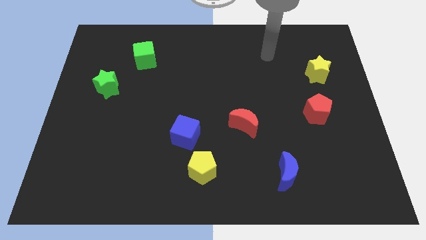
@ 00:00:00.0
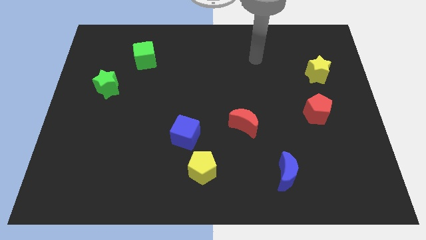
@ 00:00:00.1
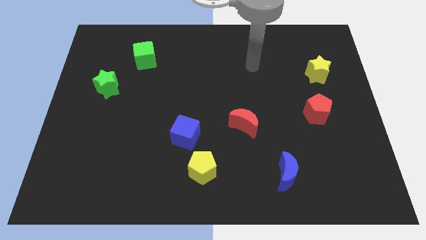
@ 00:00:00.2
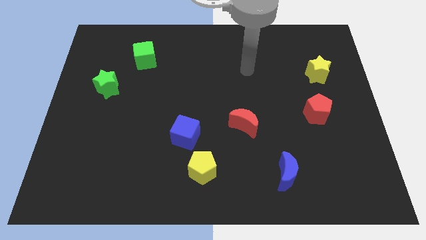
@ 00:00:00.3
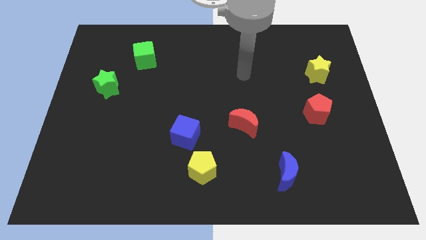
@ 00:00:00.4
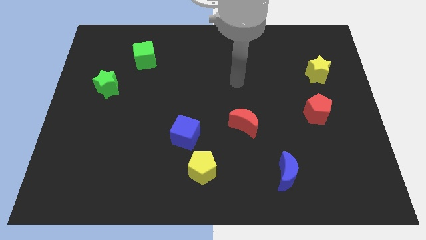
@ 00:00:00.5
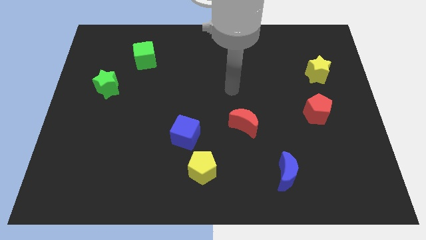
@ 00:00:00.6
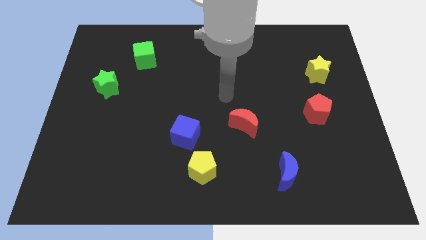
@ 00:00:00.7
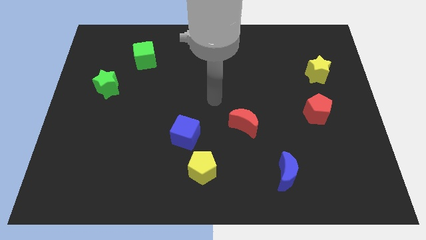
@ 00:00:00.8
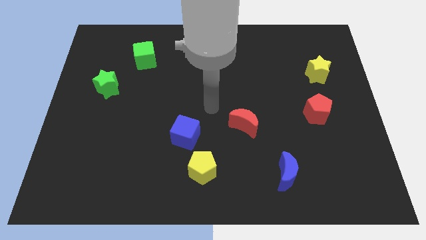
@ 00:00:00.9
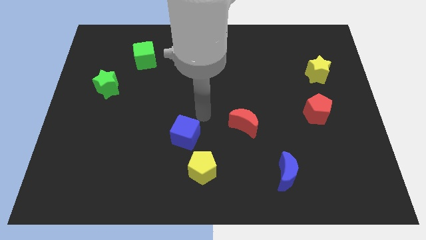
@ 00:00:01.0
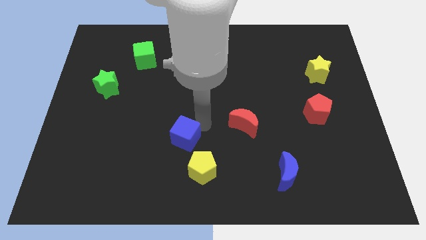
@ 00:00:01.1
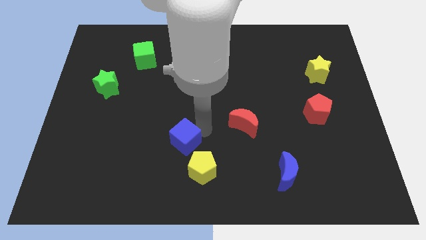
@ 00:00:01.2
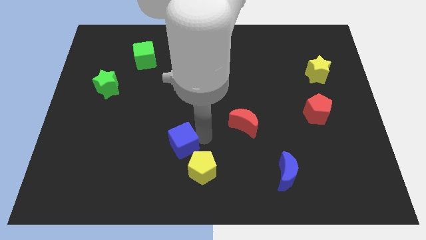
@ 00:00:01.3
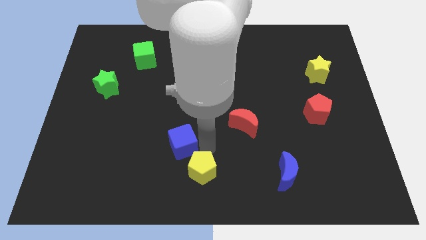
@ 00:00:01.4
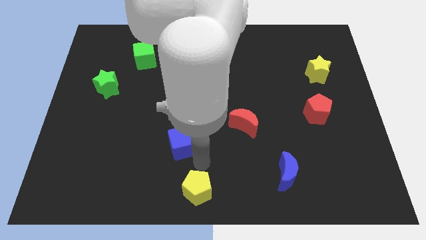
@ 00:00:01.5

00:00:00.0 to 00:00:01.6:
separate the blue cube from the yellow pentagon

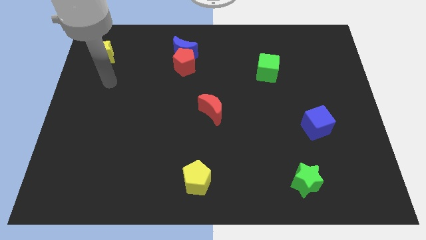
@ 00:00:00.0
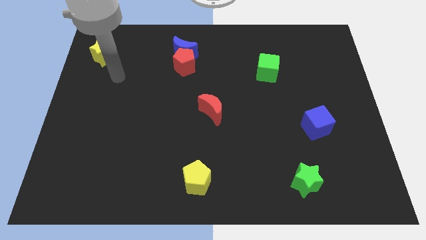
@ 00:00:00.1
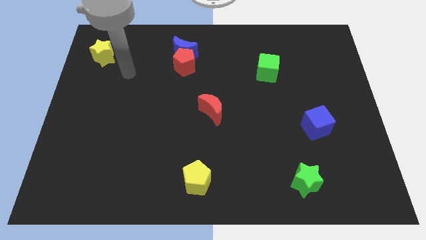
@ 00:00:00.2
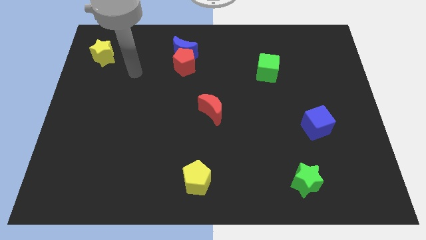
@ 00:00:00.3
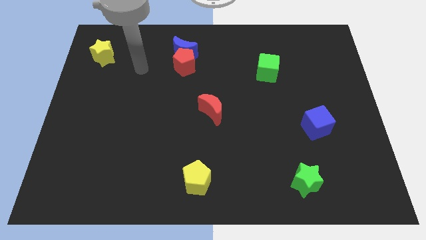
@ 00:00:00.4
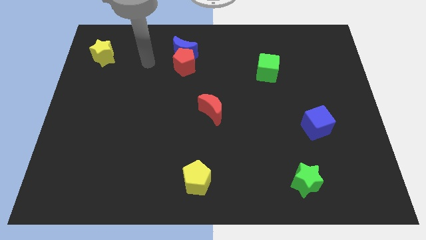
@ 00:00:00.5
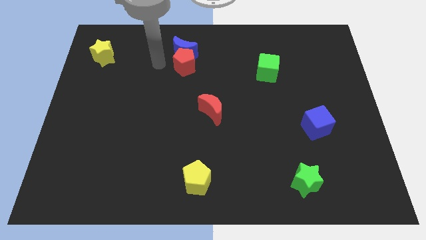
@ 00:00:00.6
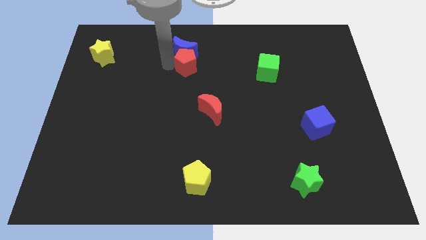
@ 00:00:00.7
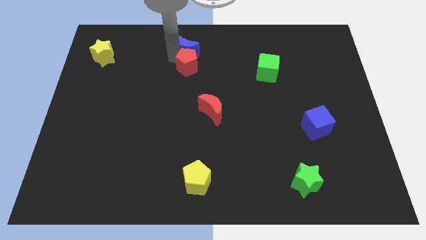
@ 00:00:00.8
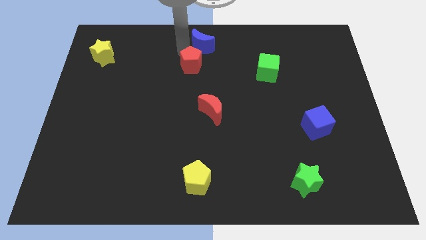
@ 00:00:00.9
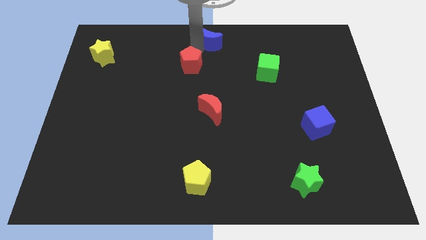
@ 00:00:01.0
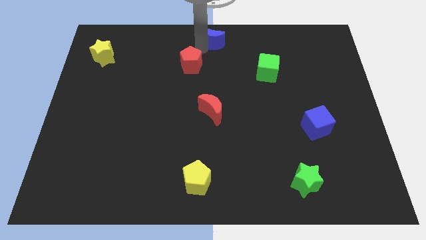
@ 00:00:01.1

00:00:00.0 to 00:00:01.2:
pull the red pentagon apart from the blue moon

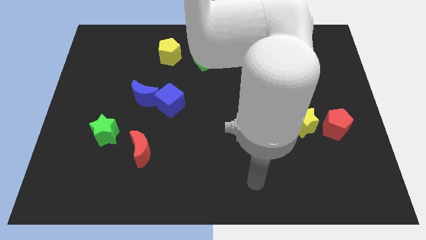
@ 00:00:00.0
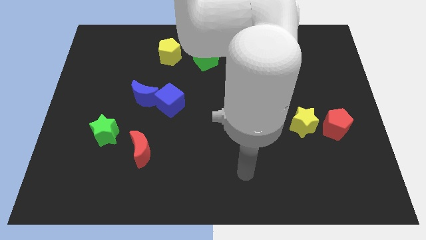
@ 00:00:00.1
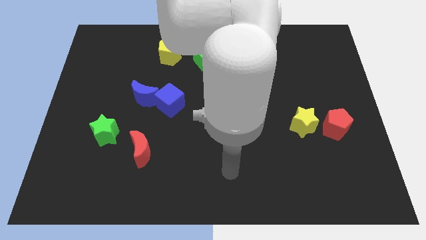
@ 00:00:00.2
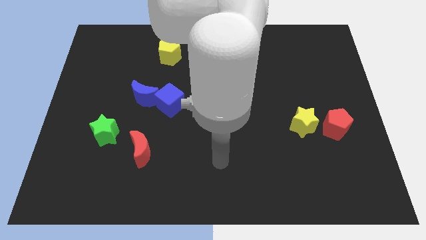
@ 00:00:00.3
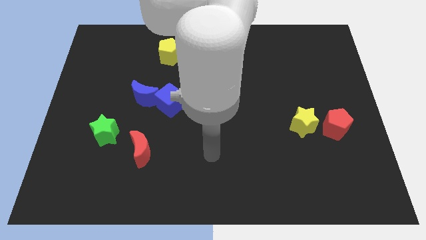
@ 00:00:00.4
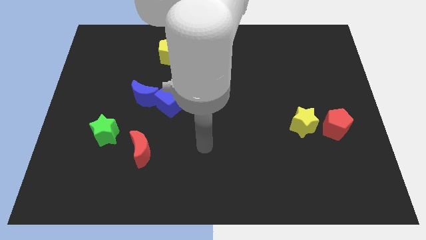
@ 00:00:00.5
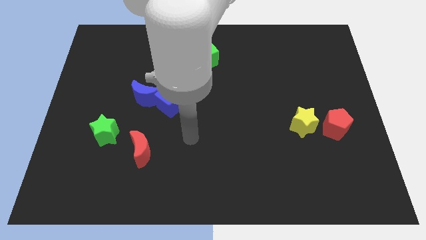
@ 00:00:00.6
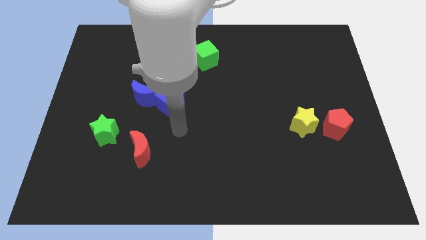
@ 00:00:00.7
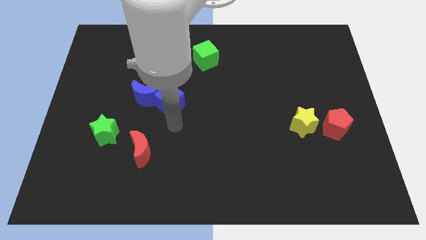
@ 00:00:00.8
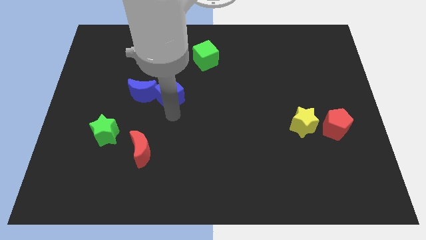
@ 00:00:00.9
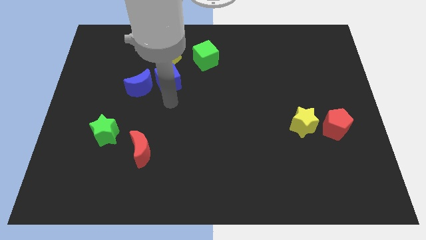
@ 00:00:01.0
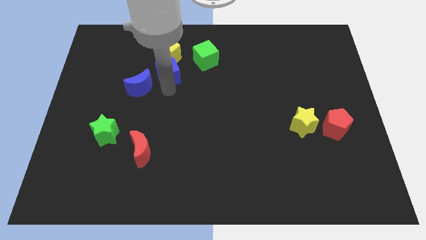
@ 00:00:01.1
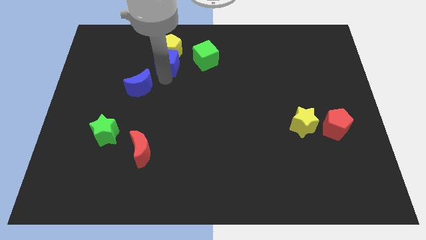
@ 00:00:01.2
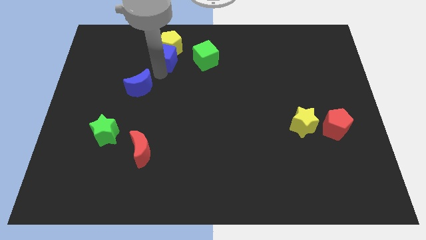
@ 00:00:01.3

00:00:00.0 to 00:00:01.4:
move the blue moon away from the blue cube

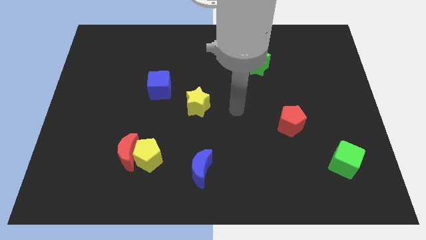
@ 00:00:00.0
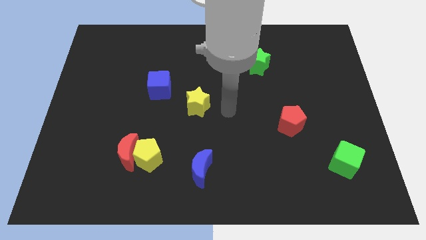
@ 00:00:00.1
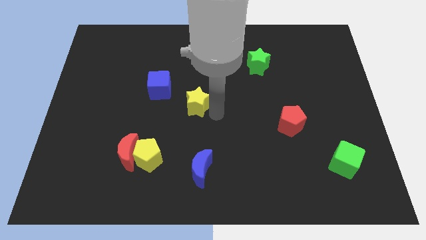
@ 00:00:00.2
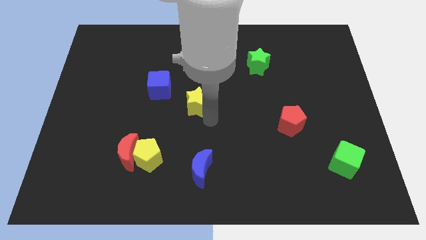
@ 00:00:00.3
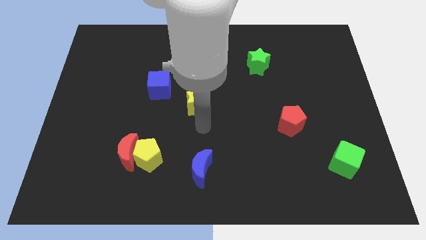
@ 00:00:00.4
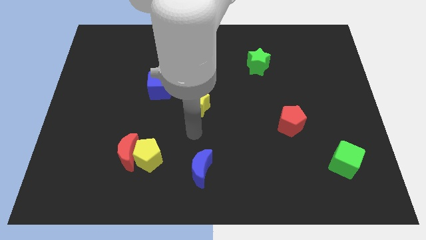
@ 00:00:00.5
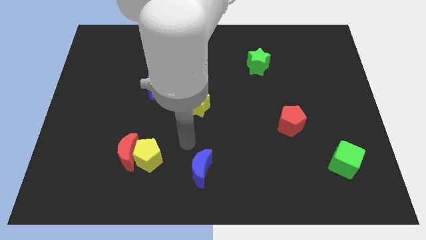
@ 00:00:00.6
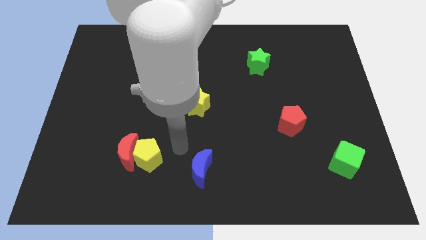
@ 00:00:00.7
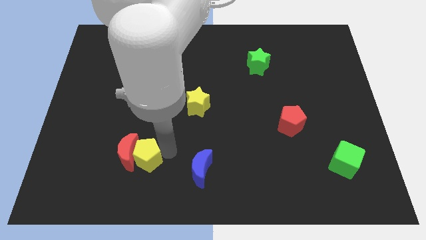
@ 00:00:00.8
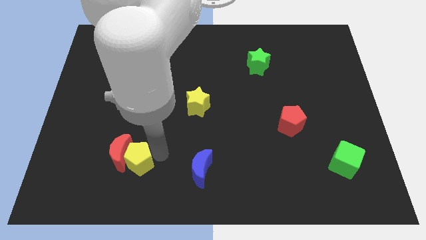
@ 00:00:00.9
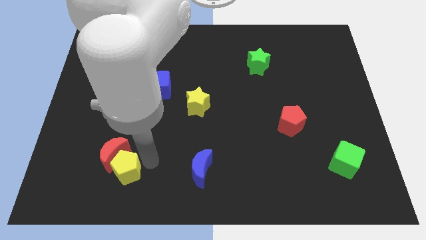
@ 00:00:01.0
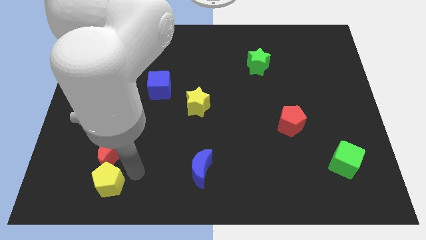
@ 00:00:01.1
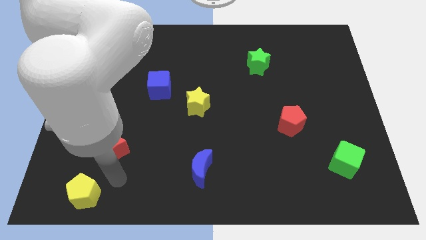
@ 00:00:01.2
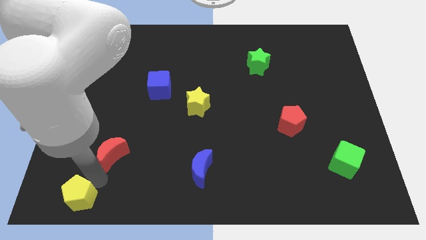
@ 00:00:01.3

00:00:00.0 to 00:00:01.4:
pull the red moon apart from the yellow pentagon

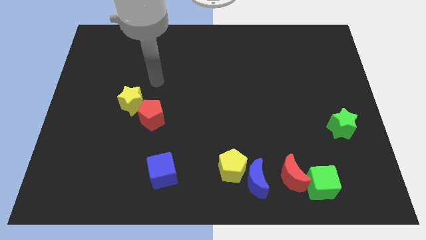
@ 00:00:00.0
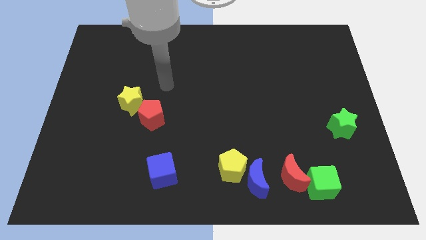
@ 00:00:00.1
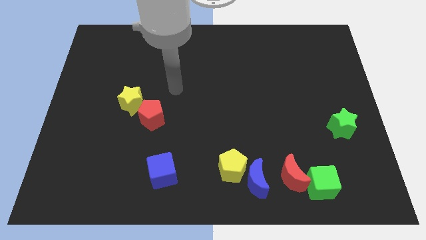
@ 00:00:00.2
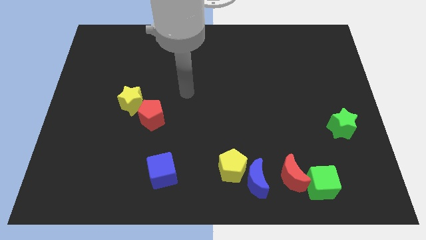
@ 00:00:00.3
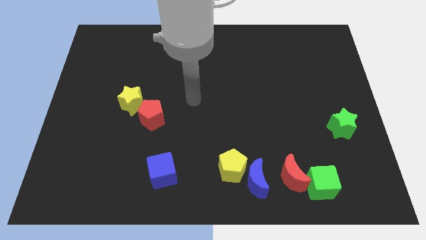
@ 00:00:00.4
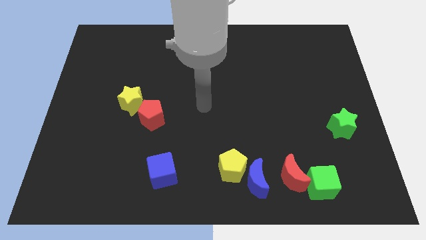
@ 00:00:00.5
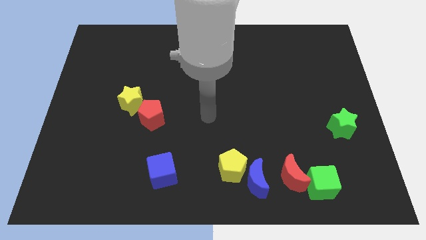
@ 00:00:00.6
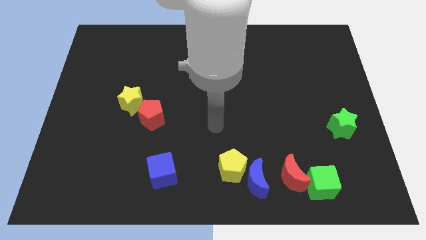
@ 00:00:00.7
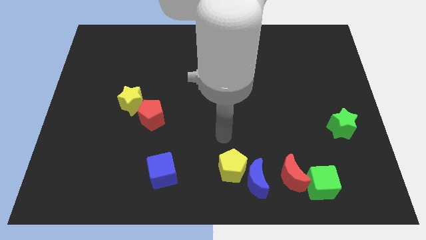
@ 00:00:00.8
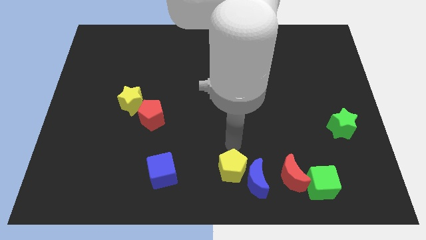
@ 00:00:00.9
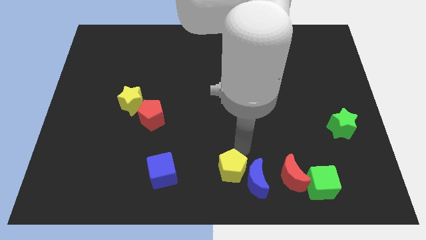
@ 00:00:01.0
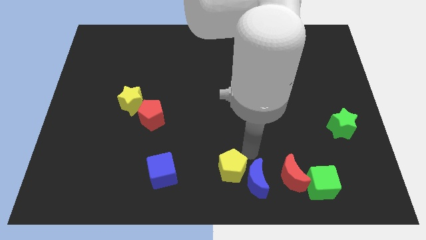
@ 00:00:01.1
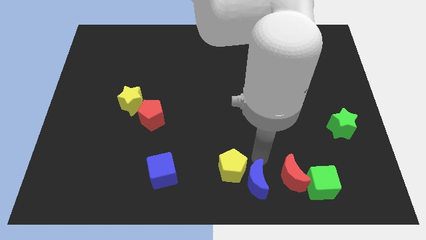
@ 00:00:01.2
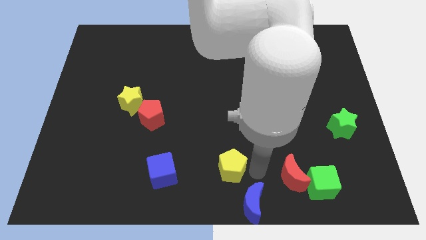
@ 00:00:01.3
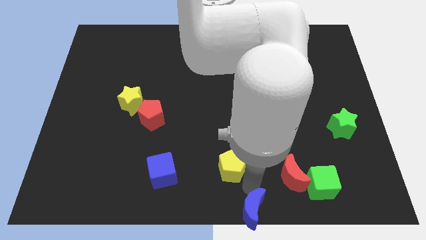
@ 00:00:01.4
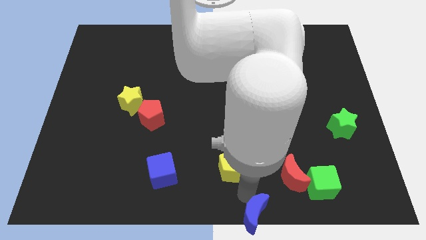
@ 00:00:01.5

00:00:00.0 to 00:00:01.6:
separate the yellow pentagon from the blue moon

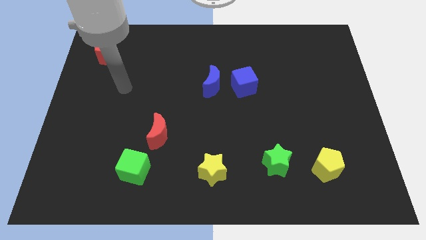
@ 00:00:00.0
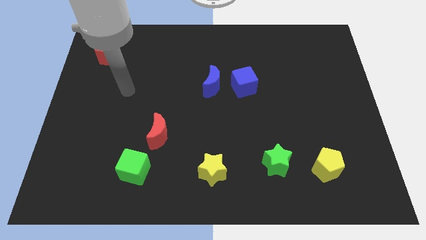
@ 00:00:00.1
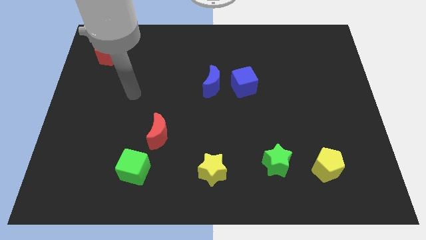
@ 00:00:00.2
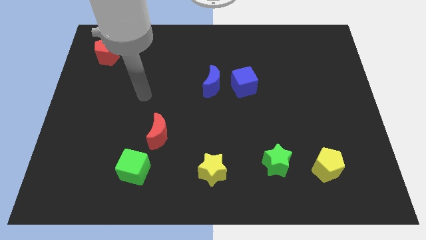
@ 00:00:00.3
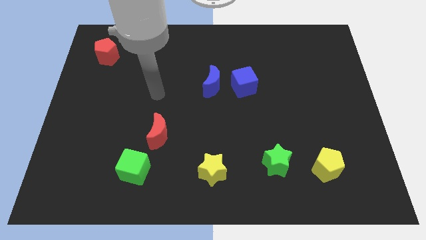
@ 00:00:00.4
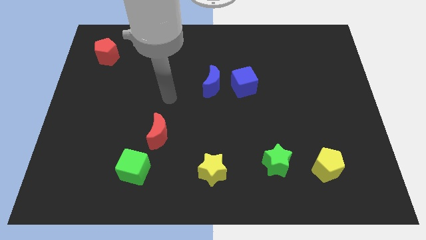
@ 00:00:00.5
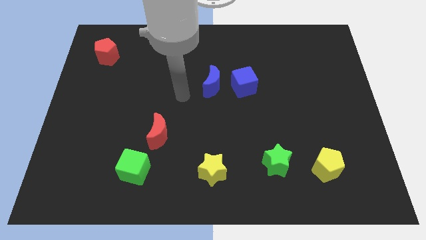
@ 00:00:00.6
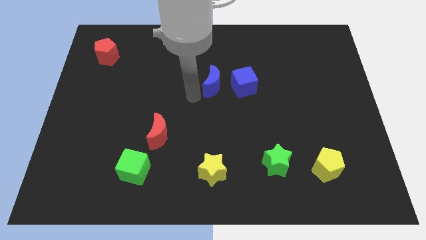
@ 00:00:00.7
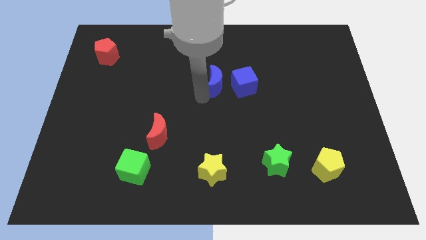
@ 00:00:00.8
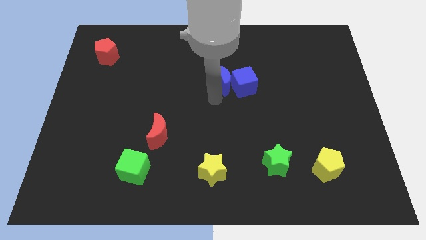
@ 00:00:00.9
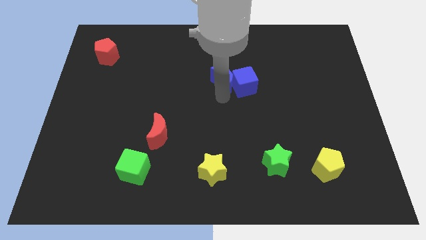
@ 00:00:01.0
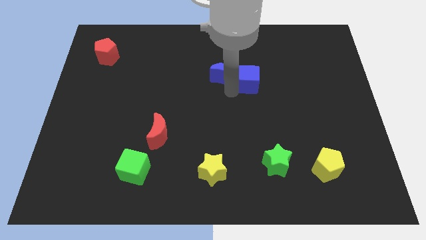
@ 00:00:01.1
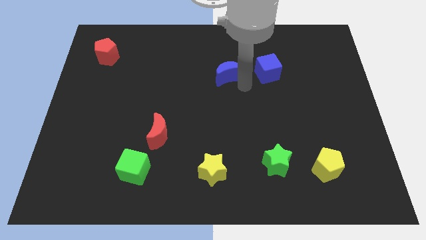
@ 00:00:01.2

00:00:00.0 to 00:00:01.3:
pull the blue moon apart from the blue cube

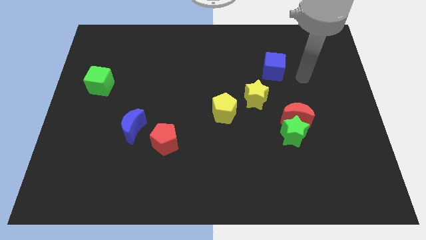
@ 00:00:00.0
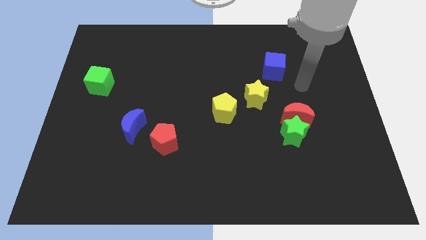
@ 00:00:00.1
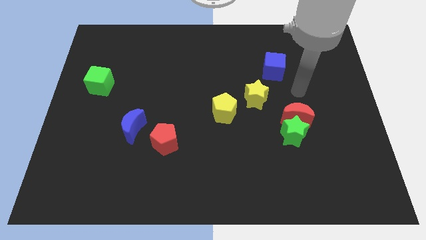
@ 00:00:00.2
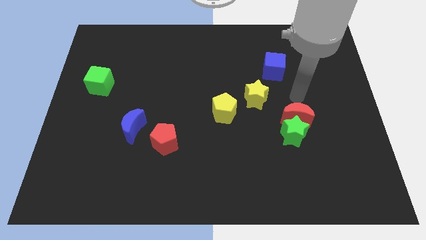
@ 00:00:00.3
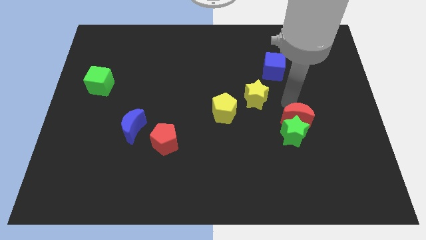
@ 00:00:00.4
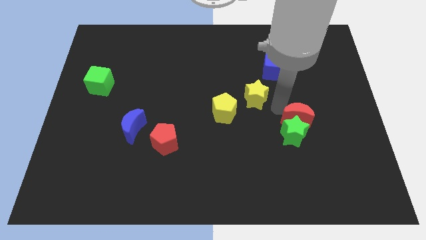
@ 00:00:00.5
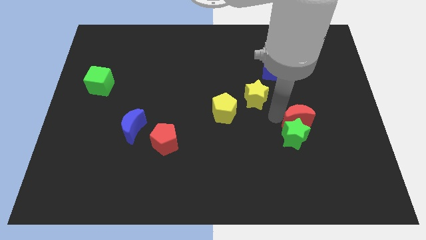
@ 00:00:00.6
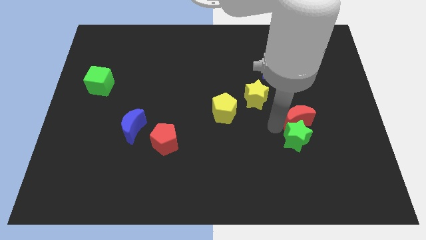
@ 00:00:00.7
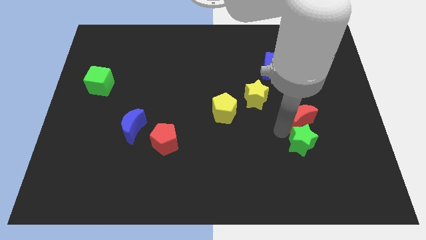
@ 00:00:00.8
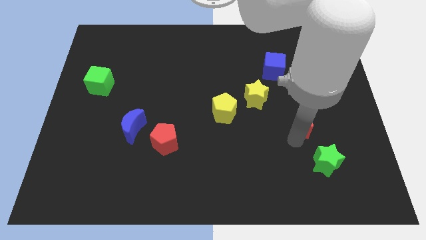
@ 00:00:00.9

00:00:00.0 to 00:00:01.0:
separate the red moon from the green star
